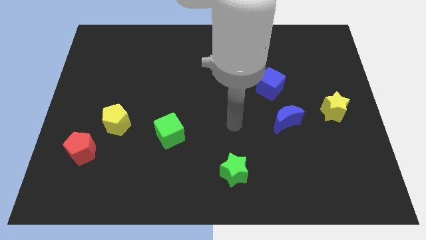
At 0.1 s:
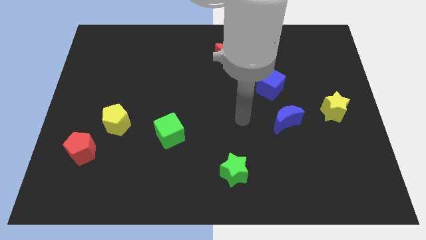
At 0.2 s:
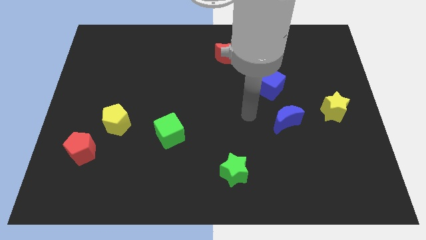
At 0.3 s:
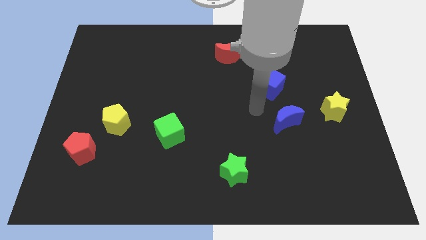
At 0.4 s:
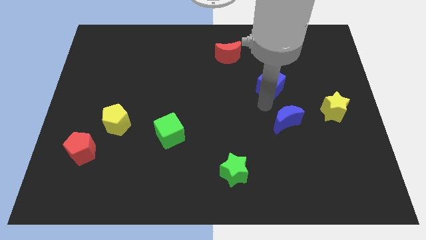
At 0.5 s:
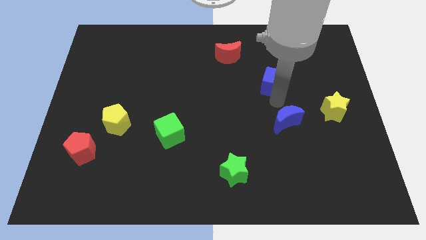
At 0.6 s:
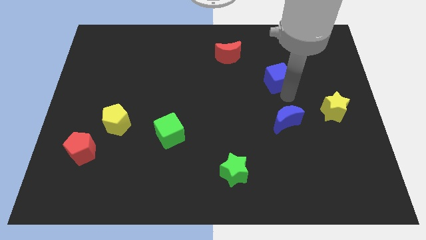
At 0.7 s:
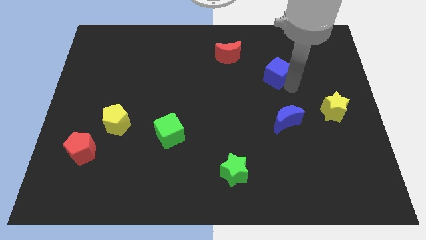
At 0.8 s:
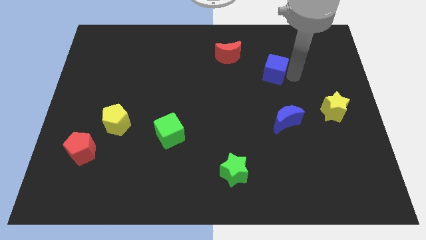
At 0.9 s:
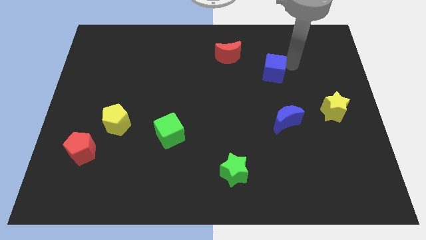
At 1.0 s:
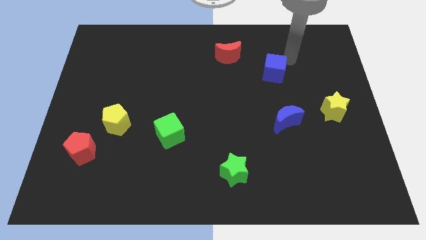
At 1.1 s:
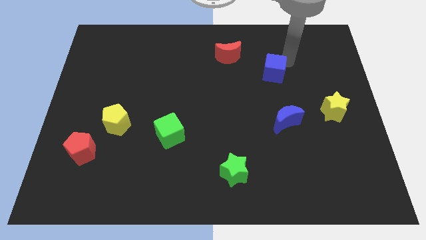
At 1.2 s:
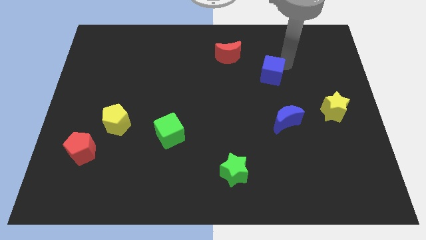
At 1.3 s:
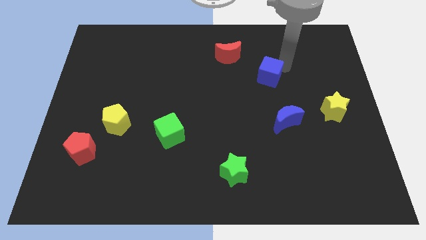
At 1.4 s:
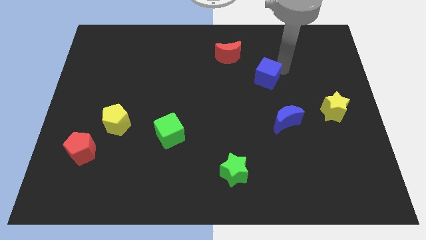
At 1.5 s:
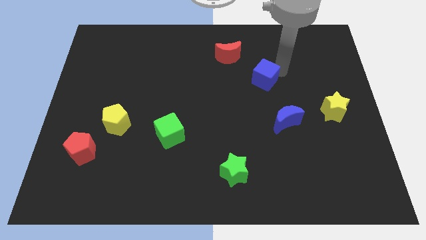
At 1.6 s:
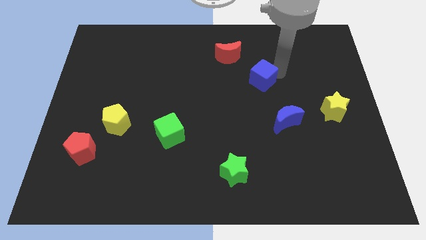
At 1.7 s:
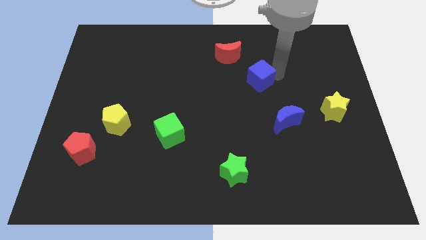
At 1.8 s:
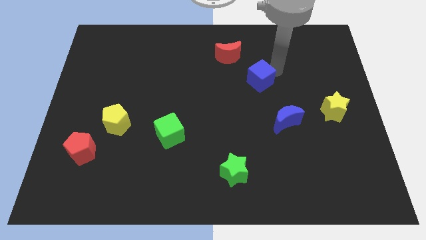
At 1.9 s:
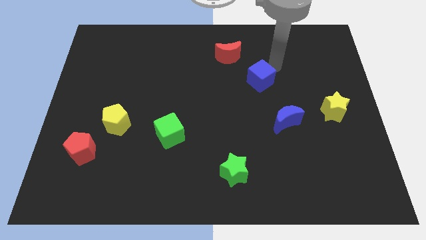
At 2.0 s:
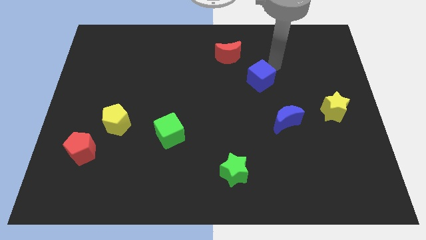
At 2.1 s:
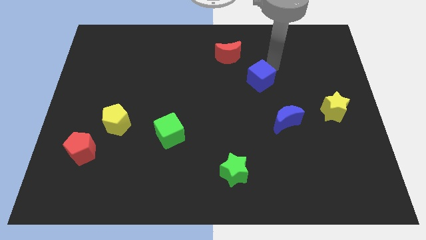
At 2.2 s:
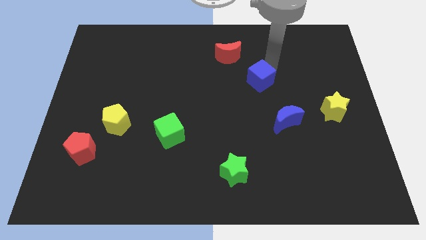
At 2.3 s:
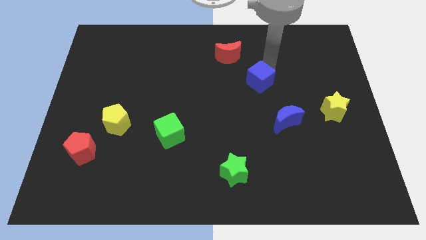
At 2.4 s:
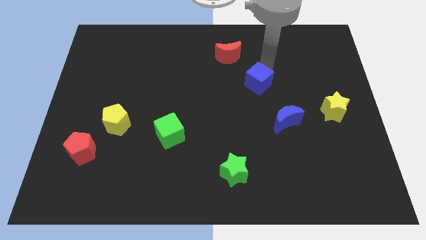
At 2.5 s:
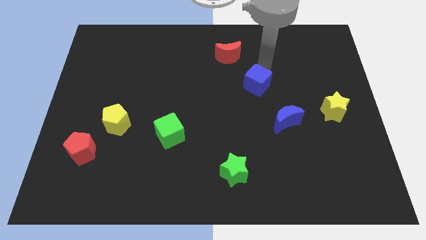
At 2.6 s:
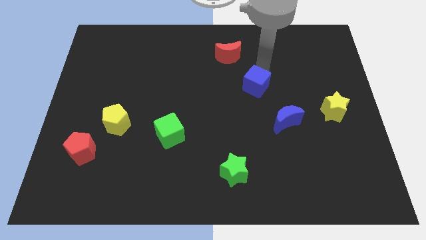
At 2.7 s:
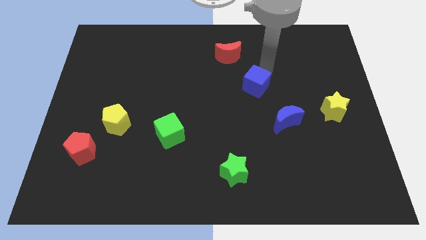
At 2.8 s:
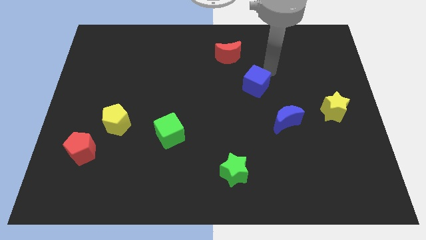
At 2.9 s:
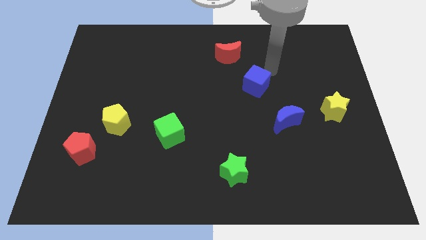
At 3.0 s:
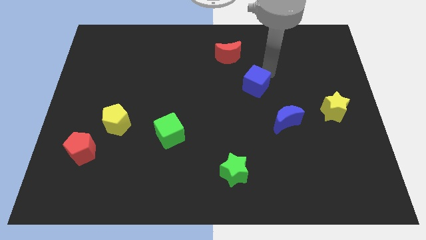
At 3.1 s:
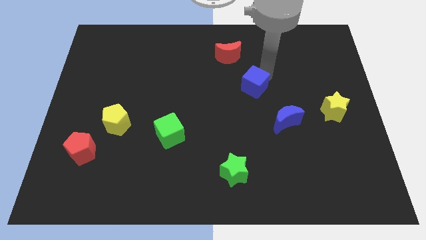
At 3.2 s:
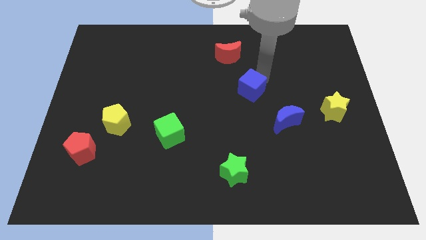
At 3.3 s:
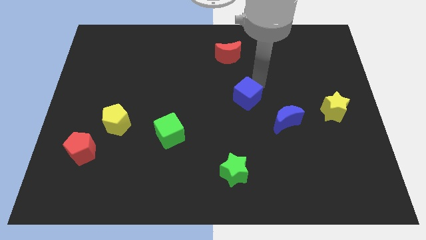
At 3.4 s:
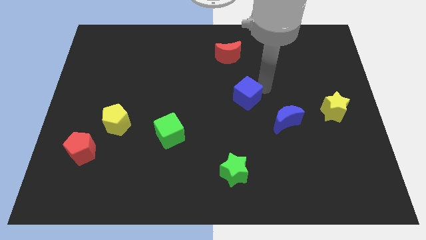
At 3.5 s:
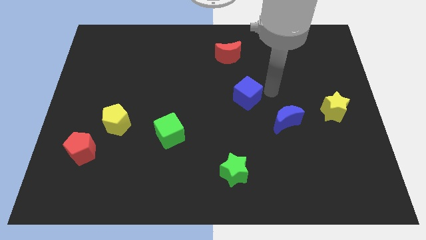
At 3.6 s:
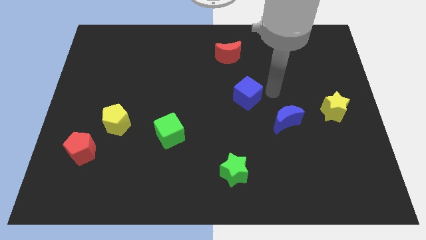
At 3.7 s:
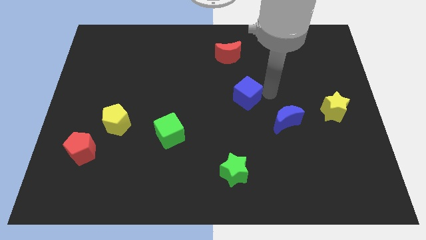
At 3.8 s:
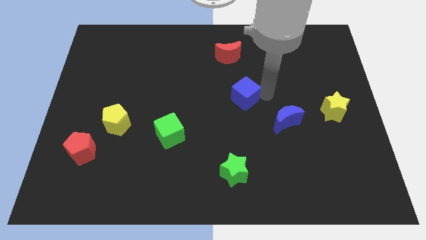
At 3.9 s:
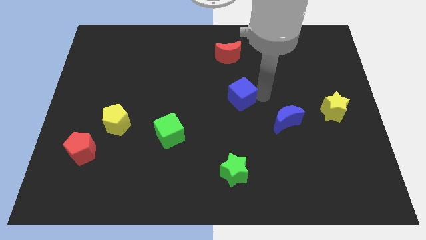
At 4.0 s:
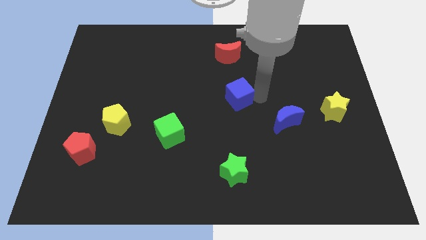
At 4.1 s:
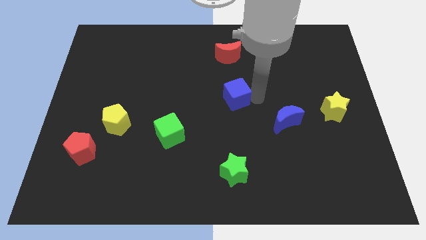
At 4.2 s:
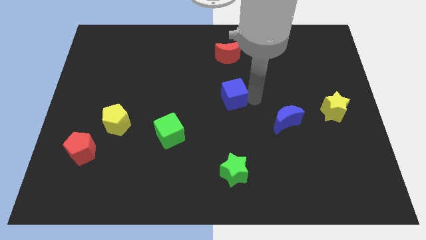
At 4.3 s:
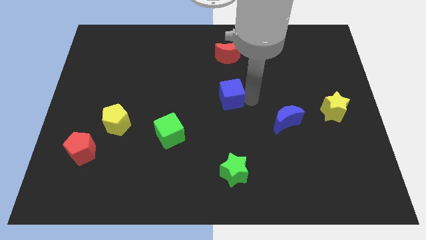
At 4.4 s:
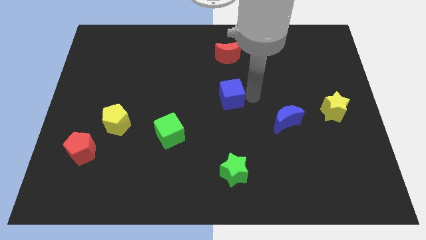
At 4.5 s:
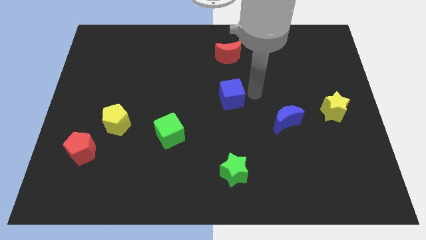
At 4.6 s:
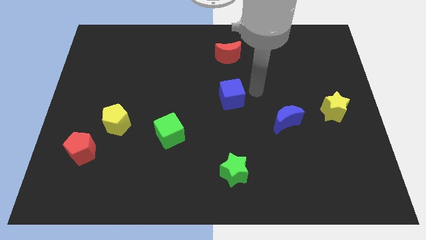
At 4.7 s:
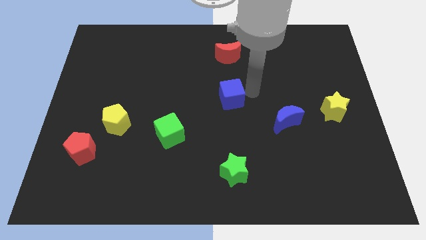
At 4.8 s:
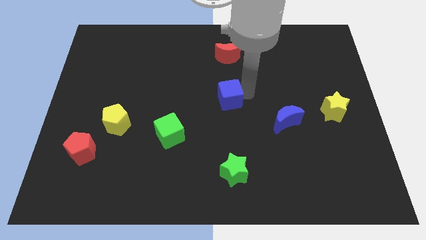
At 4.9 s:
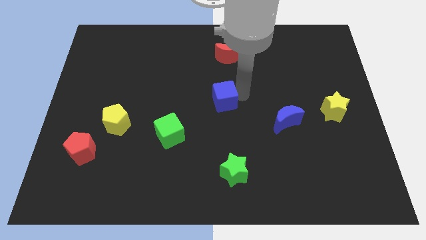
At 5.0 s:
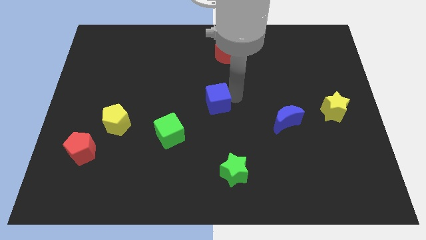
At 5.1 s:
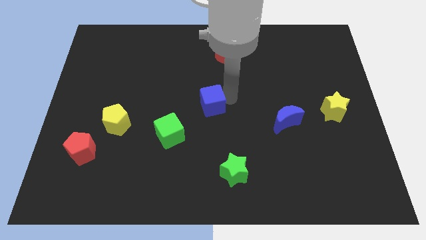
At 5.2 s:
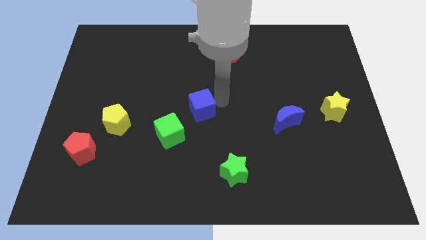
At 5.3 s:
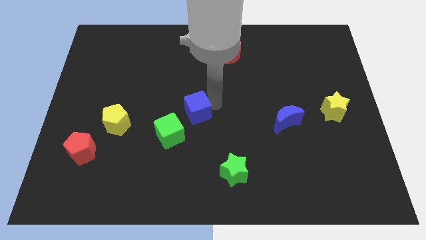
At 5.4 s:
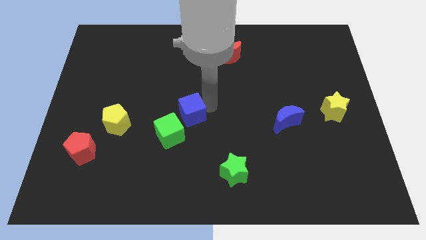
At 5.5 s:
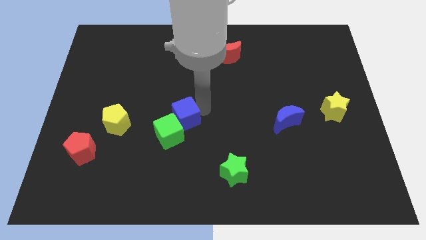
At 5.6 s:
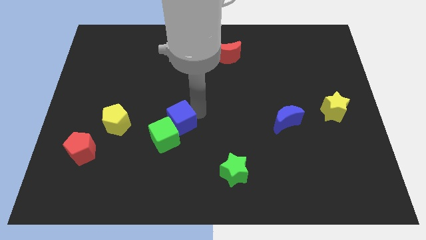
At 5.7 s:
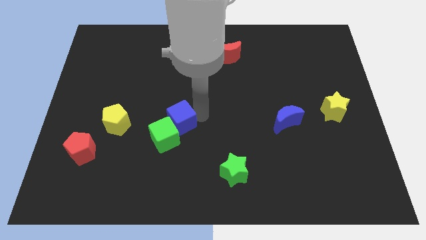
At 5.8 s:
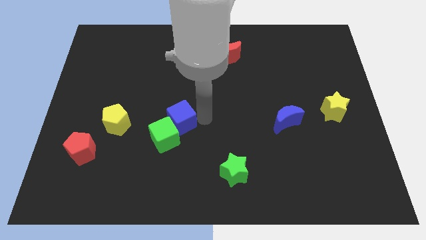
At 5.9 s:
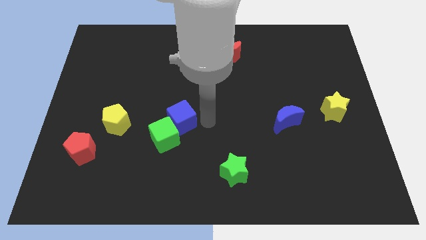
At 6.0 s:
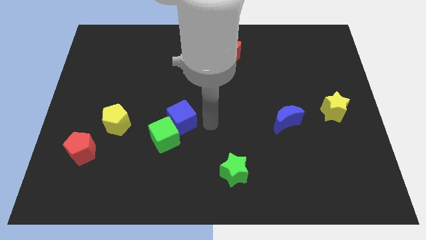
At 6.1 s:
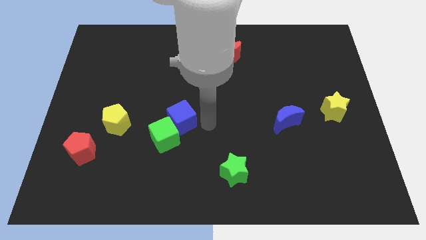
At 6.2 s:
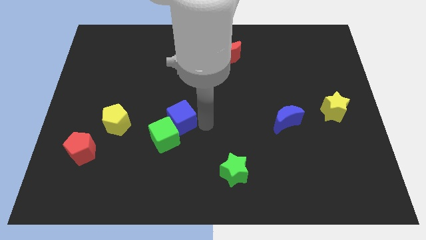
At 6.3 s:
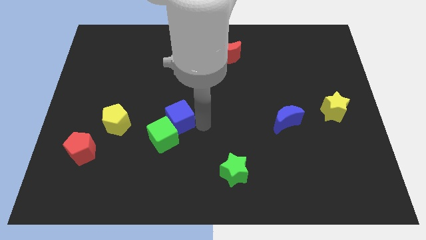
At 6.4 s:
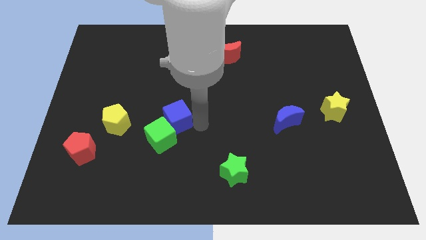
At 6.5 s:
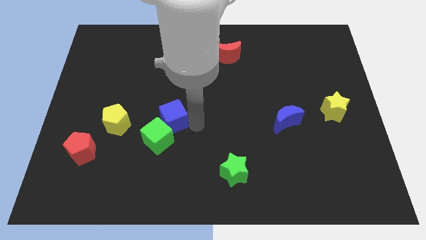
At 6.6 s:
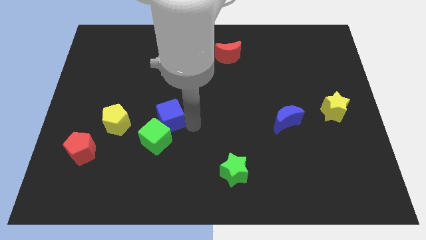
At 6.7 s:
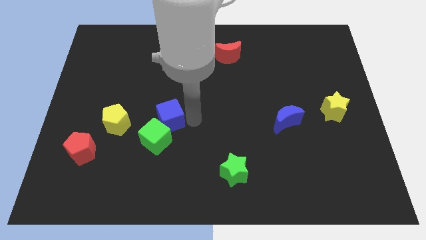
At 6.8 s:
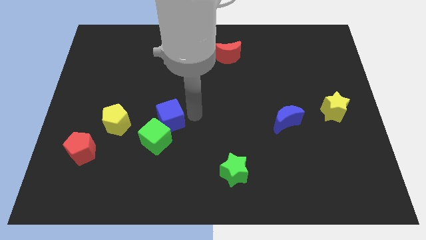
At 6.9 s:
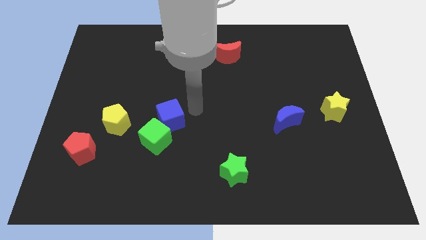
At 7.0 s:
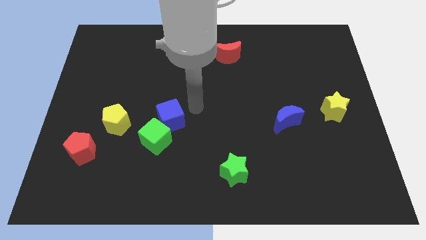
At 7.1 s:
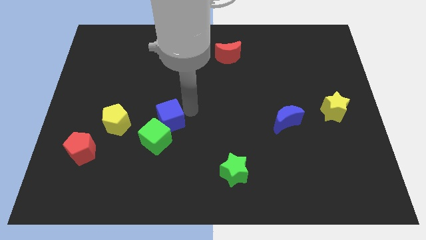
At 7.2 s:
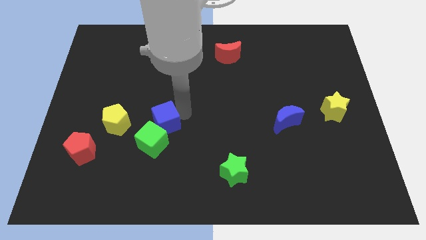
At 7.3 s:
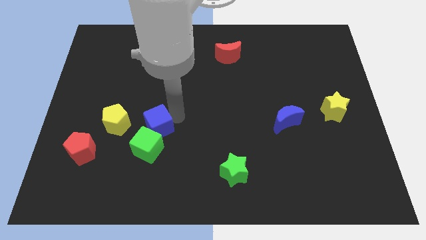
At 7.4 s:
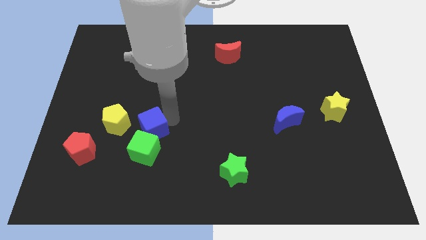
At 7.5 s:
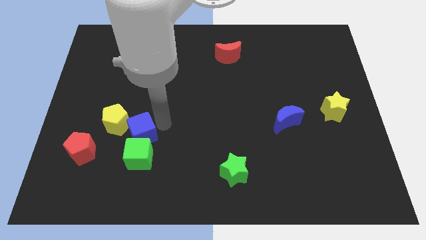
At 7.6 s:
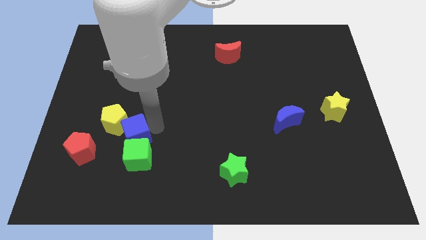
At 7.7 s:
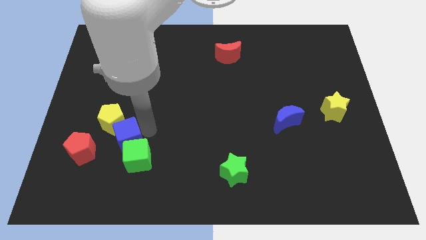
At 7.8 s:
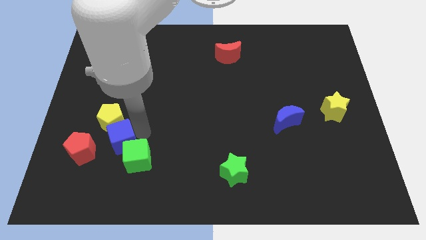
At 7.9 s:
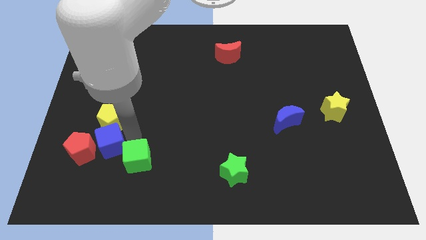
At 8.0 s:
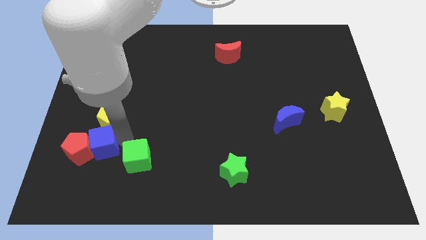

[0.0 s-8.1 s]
put the blue cube towards the red pentagon
